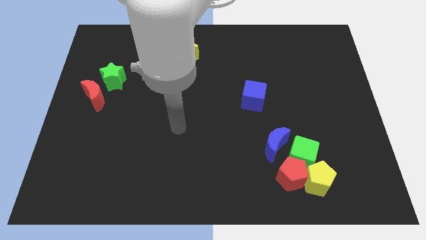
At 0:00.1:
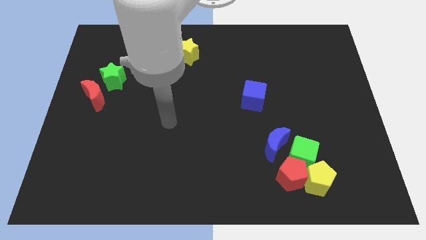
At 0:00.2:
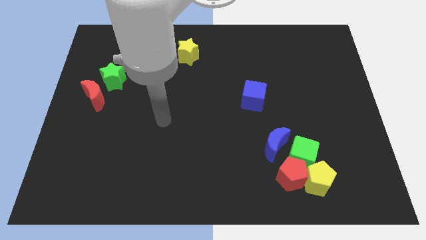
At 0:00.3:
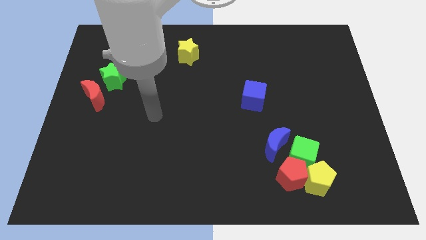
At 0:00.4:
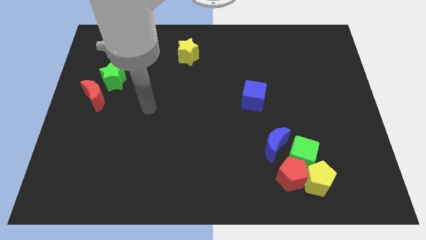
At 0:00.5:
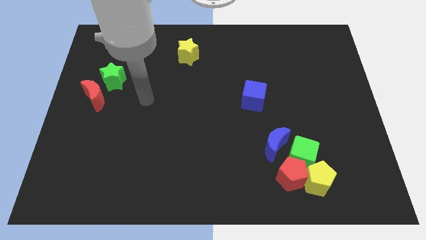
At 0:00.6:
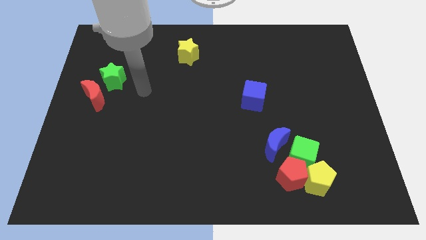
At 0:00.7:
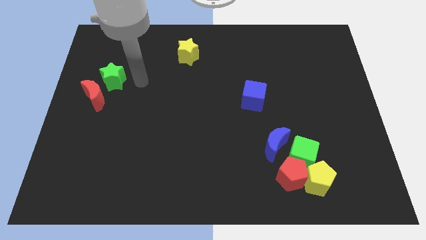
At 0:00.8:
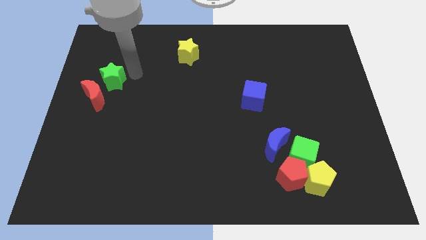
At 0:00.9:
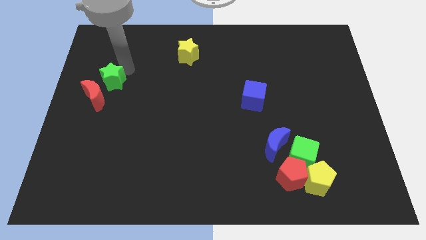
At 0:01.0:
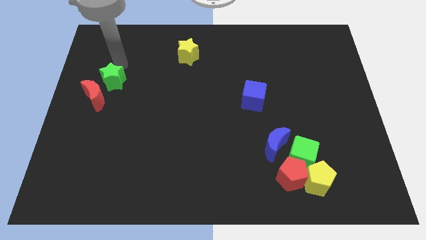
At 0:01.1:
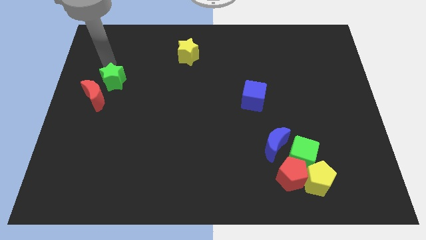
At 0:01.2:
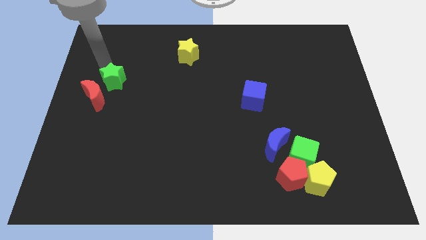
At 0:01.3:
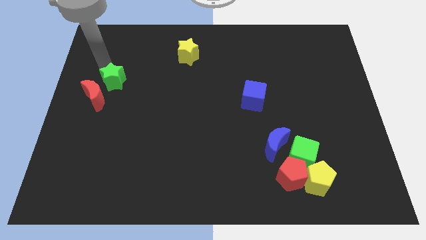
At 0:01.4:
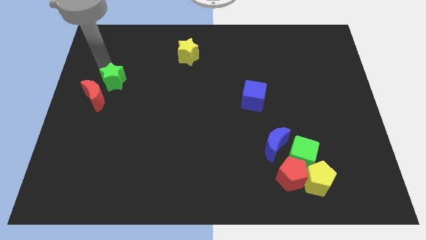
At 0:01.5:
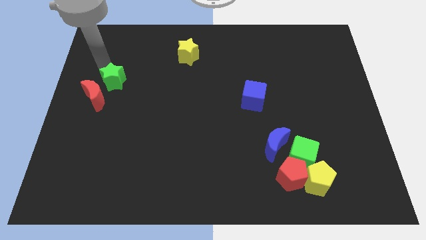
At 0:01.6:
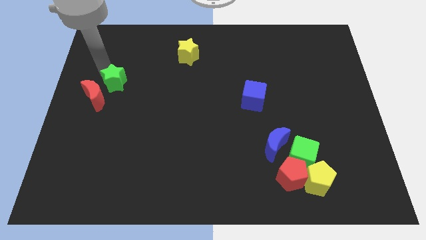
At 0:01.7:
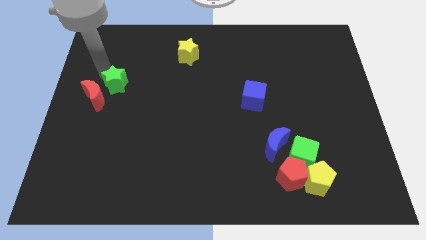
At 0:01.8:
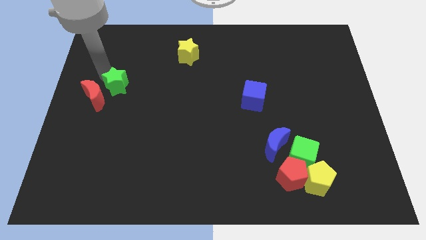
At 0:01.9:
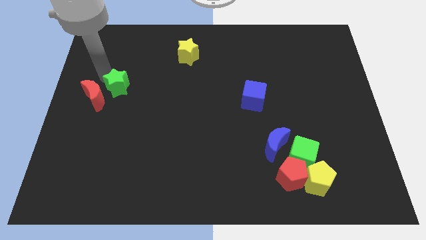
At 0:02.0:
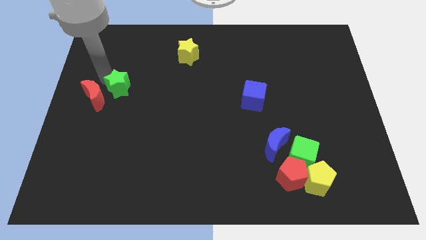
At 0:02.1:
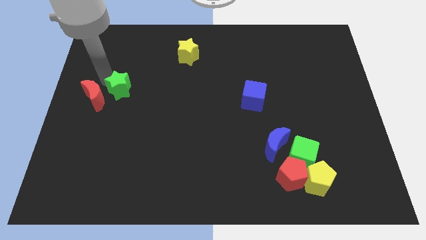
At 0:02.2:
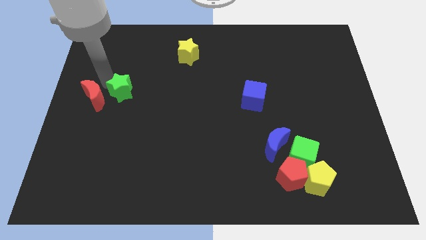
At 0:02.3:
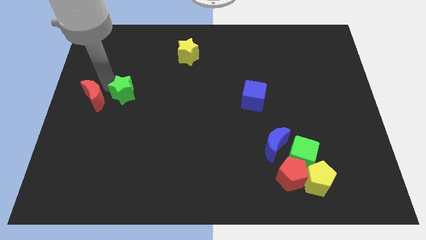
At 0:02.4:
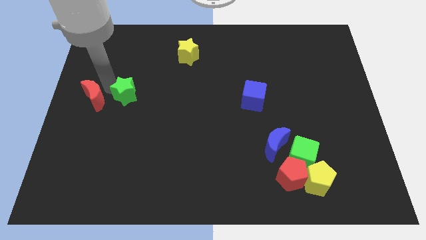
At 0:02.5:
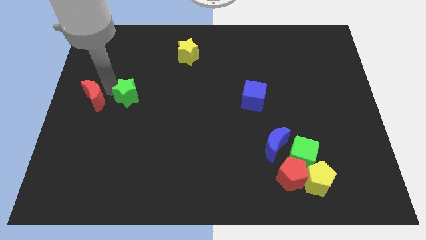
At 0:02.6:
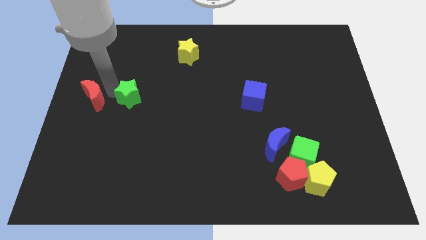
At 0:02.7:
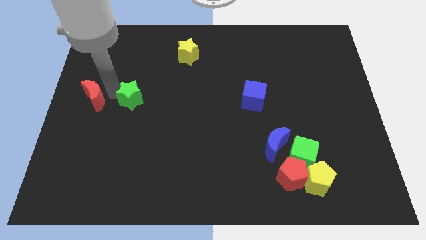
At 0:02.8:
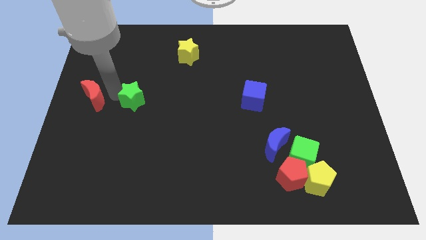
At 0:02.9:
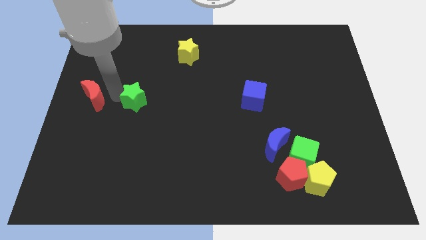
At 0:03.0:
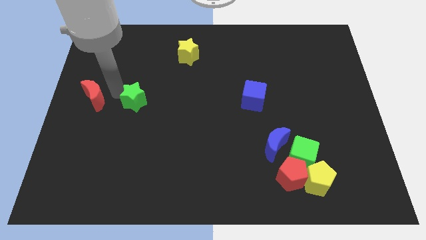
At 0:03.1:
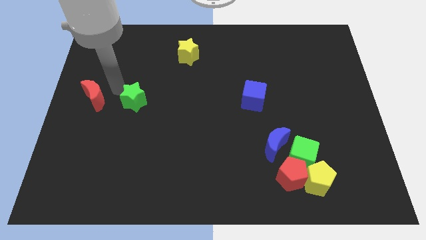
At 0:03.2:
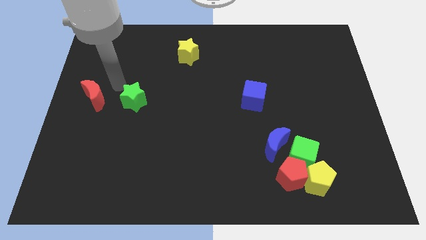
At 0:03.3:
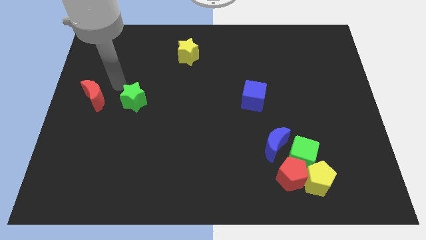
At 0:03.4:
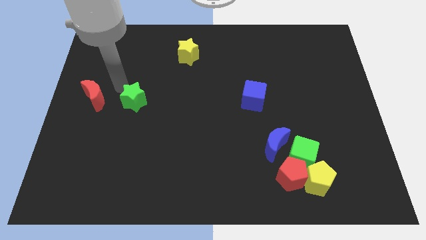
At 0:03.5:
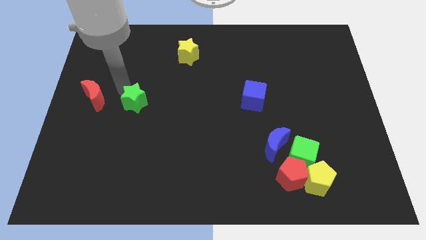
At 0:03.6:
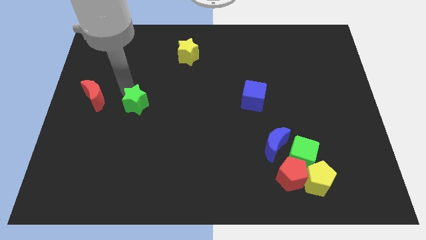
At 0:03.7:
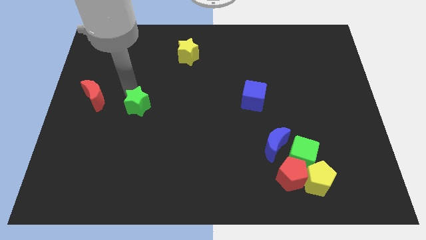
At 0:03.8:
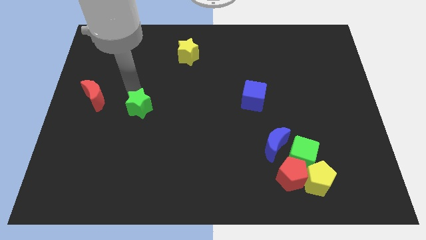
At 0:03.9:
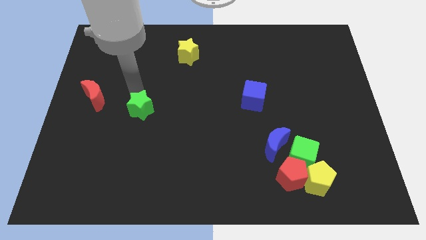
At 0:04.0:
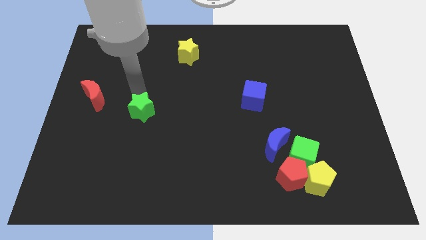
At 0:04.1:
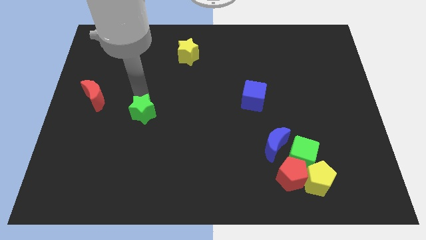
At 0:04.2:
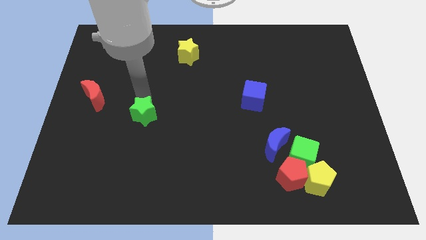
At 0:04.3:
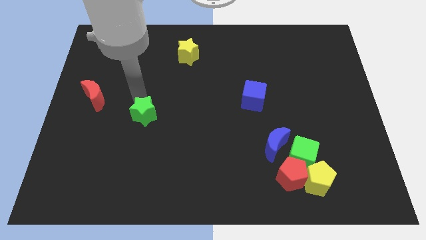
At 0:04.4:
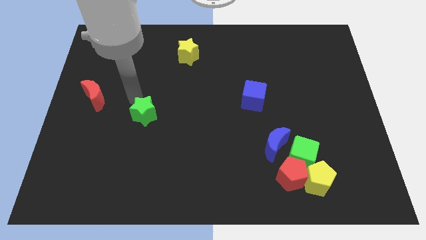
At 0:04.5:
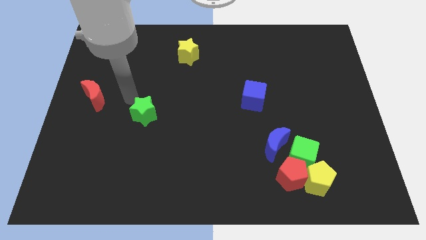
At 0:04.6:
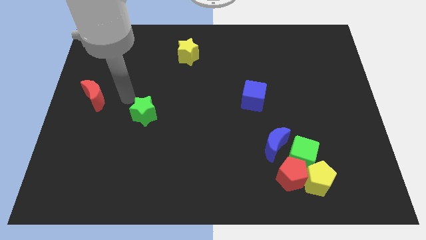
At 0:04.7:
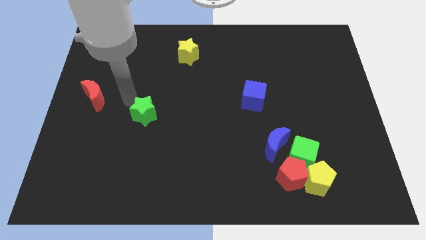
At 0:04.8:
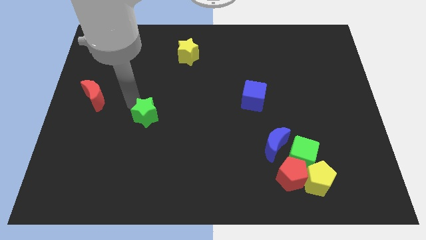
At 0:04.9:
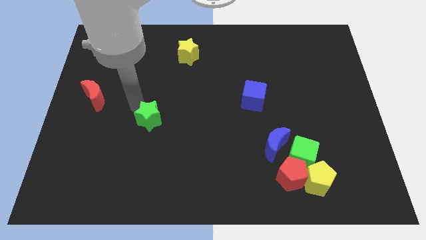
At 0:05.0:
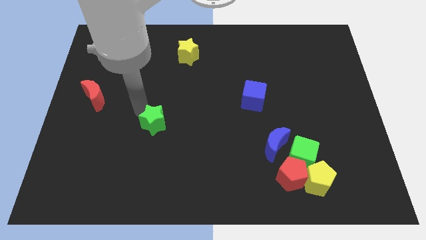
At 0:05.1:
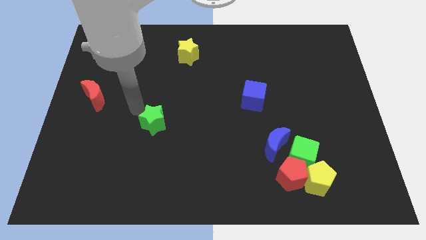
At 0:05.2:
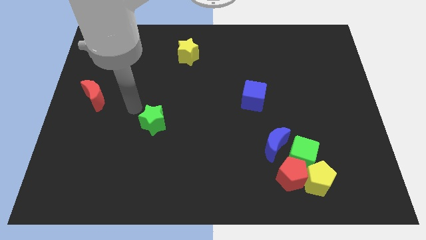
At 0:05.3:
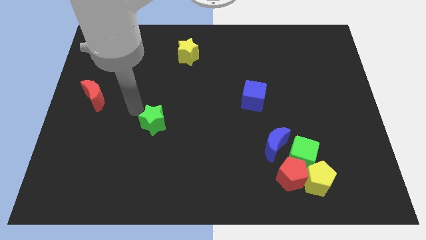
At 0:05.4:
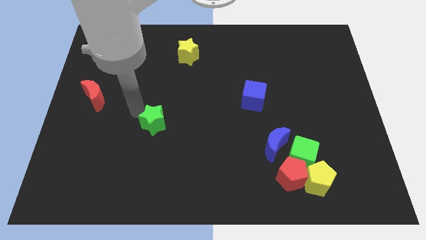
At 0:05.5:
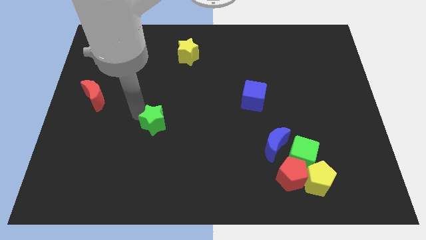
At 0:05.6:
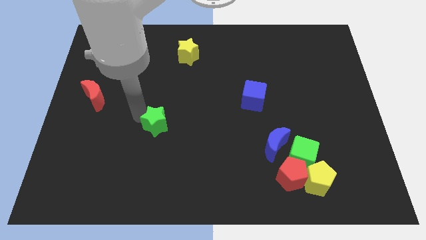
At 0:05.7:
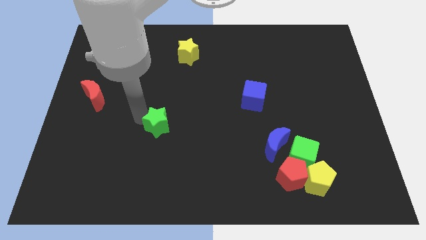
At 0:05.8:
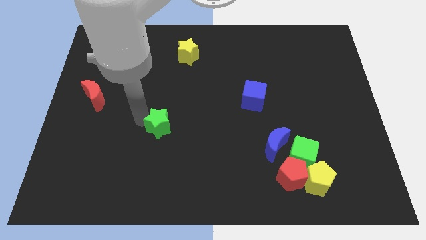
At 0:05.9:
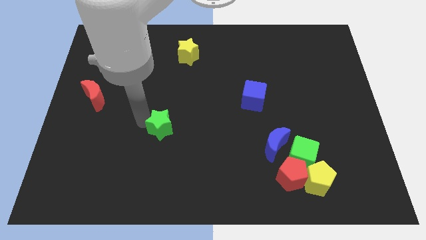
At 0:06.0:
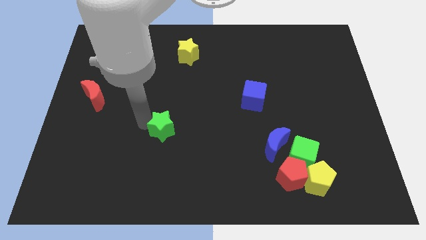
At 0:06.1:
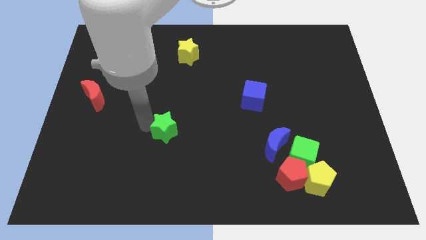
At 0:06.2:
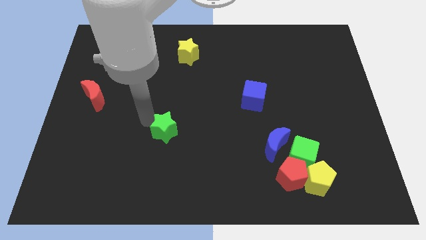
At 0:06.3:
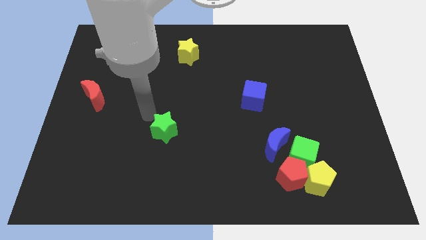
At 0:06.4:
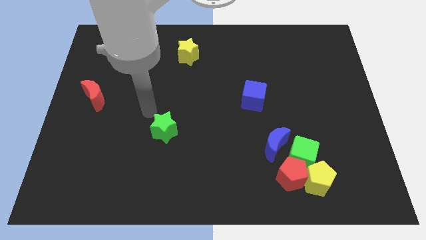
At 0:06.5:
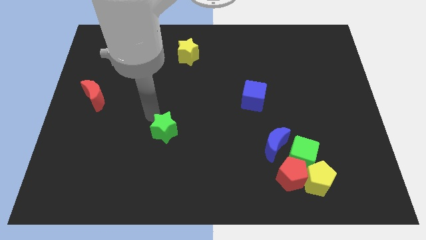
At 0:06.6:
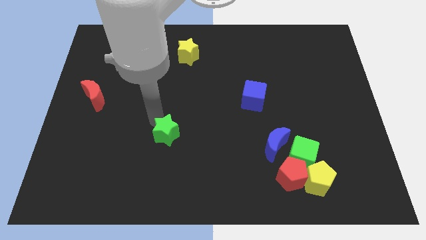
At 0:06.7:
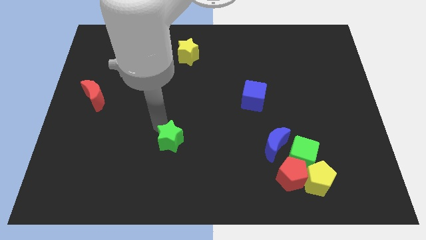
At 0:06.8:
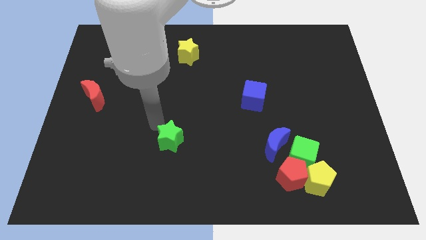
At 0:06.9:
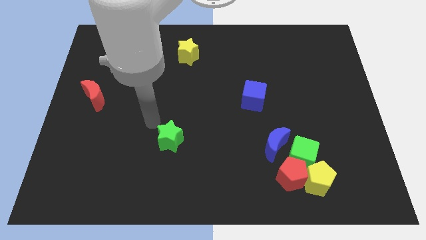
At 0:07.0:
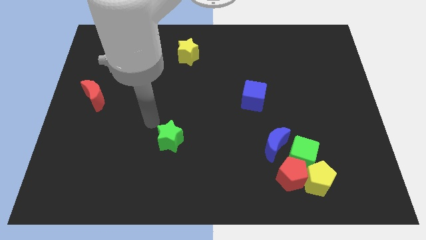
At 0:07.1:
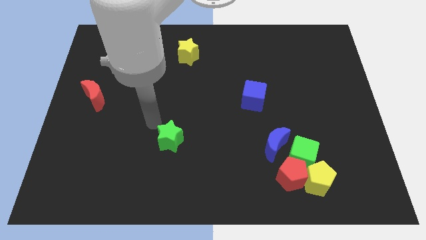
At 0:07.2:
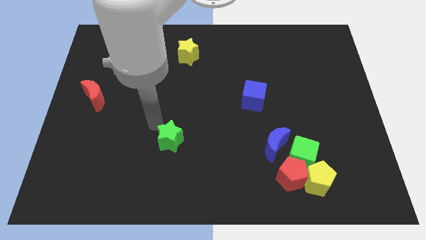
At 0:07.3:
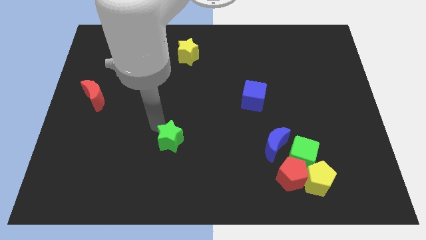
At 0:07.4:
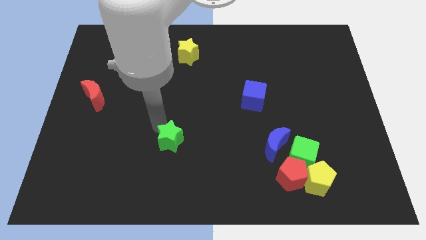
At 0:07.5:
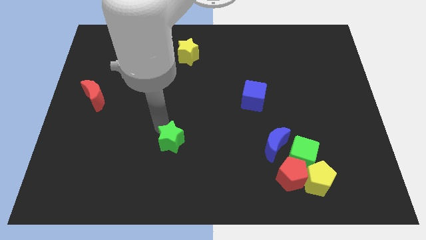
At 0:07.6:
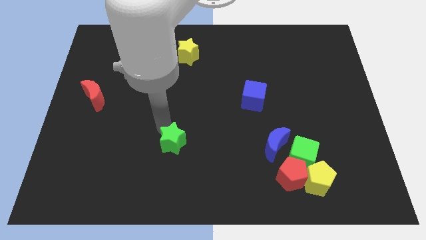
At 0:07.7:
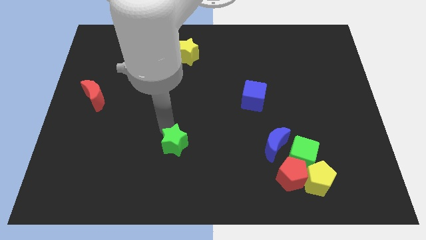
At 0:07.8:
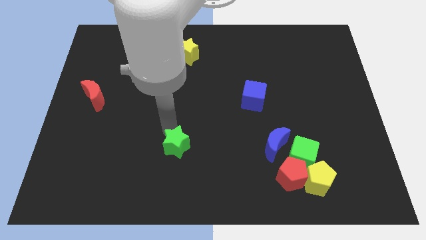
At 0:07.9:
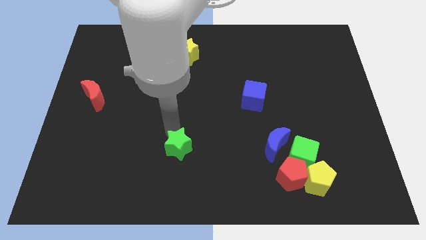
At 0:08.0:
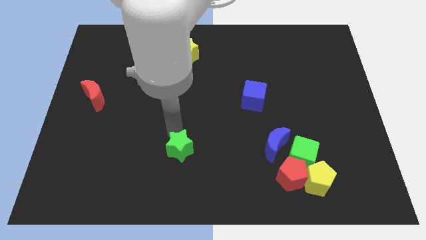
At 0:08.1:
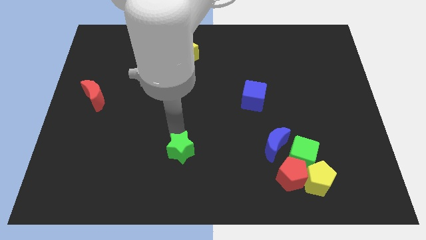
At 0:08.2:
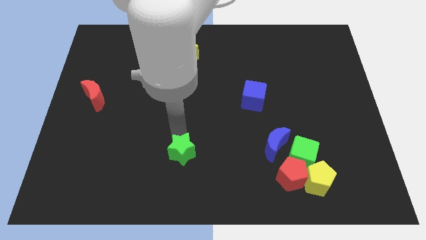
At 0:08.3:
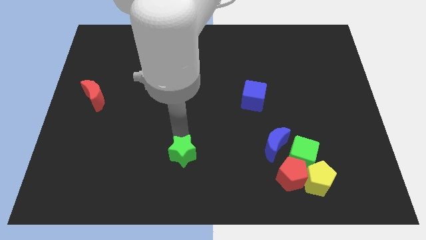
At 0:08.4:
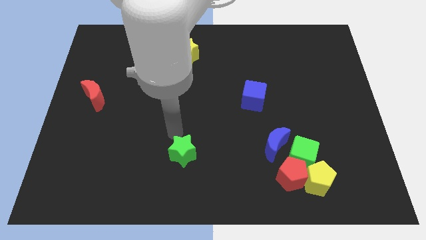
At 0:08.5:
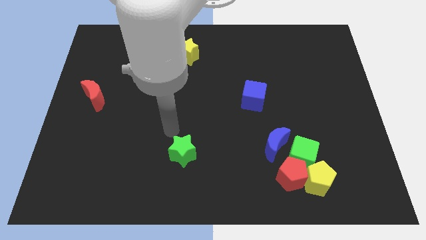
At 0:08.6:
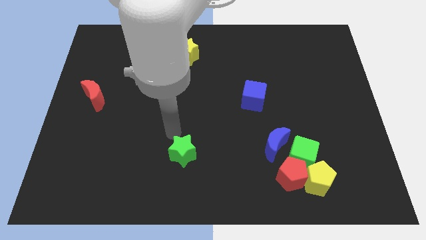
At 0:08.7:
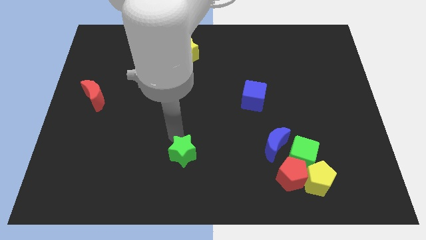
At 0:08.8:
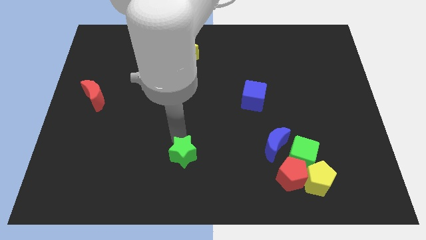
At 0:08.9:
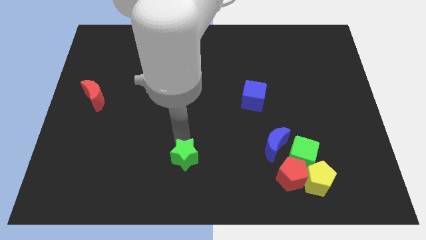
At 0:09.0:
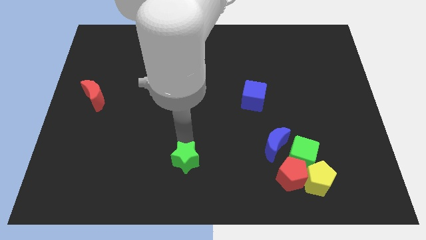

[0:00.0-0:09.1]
slide the green star to the bottom
